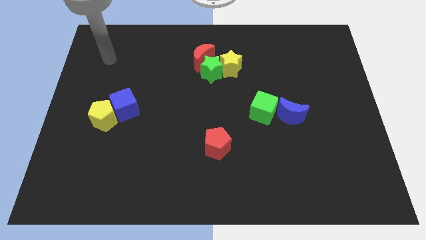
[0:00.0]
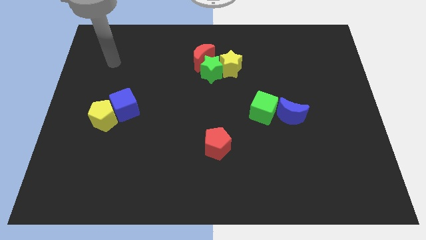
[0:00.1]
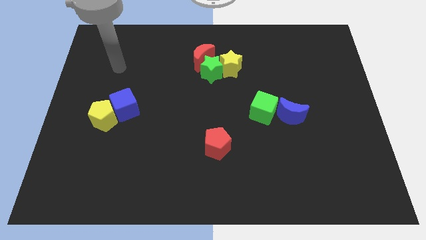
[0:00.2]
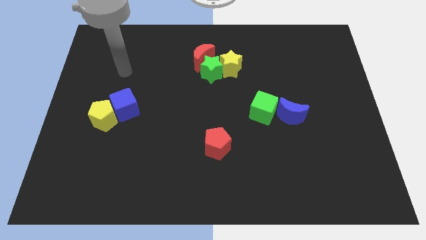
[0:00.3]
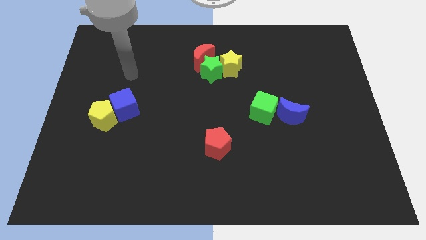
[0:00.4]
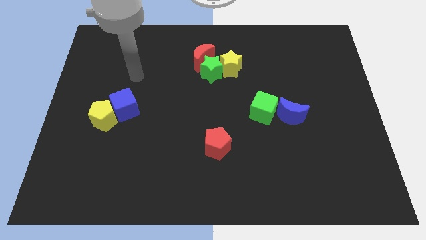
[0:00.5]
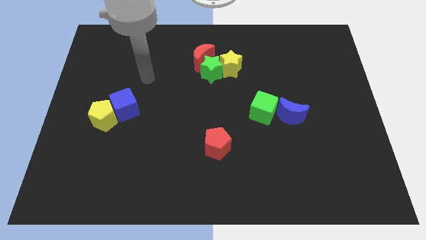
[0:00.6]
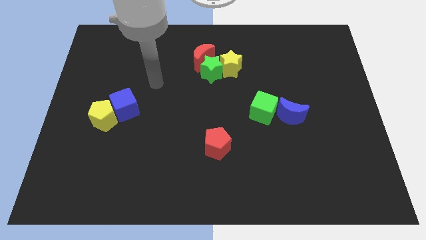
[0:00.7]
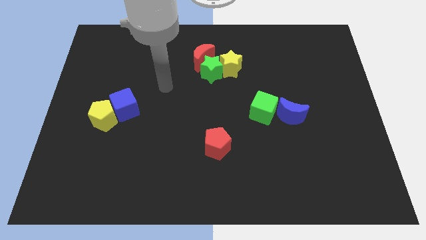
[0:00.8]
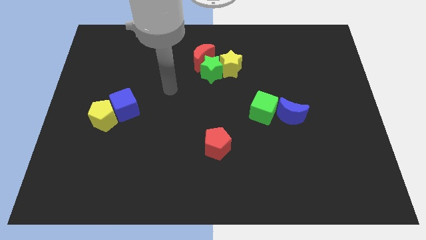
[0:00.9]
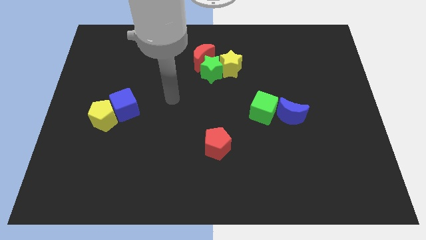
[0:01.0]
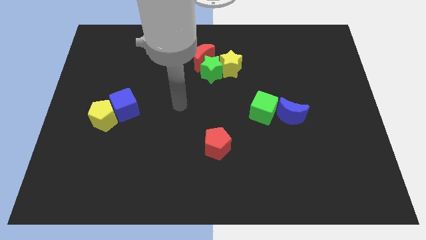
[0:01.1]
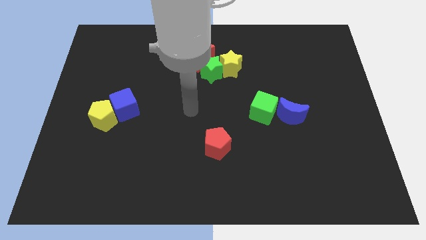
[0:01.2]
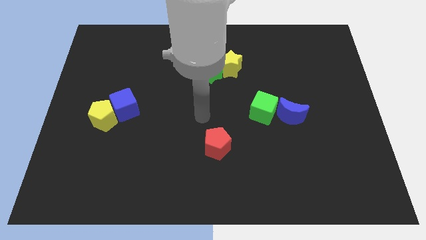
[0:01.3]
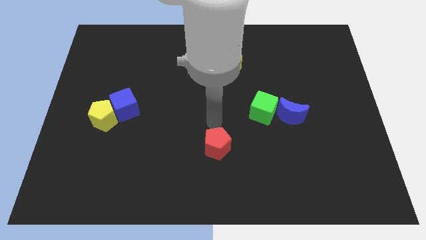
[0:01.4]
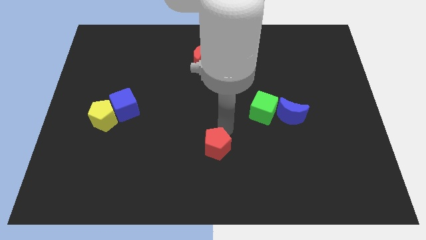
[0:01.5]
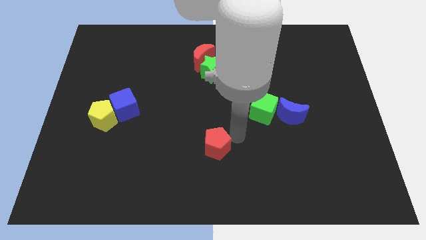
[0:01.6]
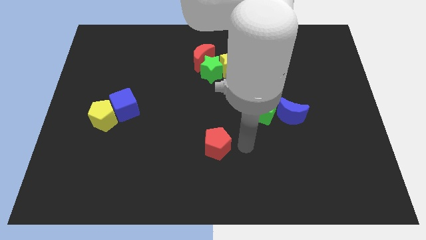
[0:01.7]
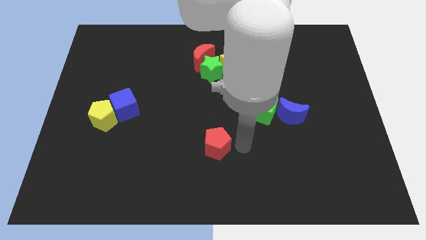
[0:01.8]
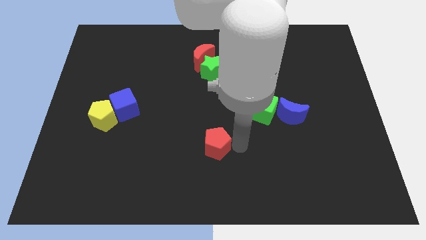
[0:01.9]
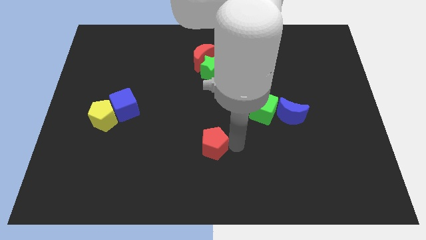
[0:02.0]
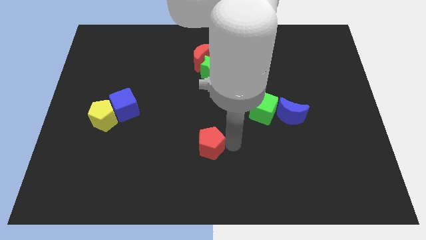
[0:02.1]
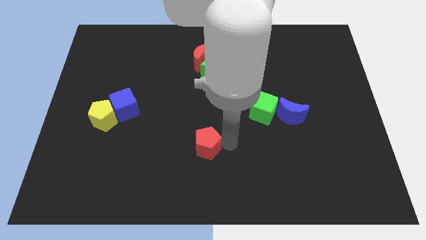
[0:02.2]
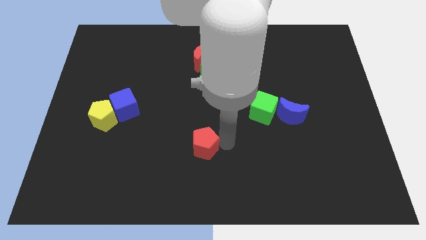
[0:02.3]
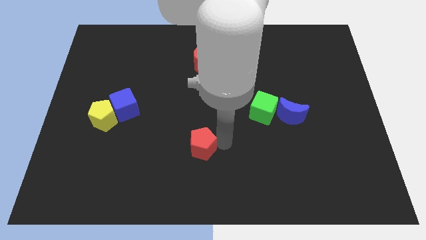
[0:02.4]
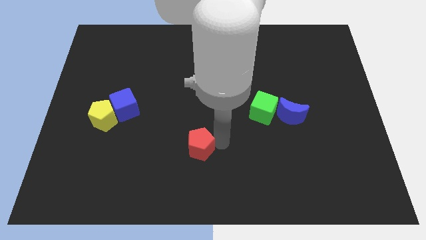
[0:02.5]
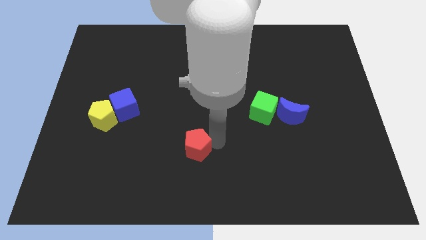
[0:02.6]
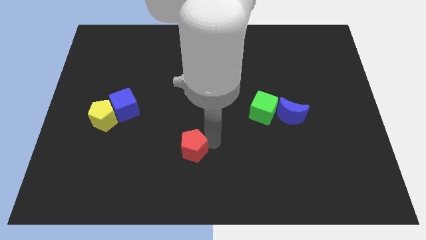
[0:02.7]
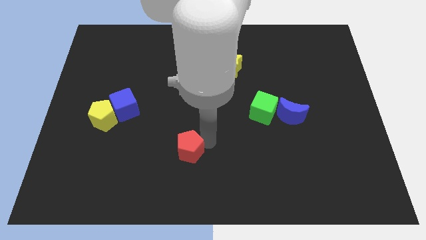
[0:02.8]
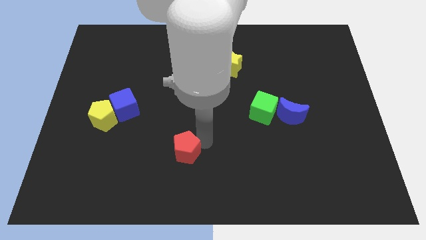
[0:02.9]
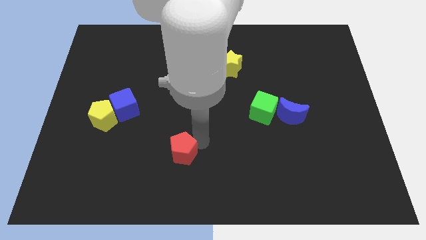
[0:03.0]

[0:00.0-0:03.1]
push the red pentagon left a little

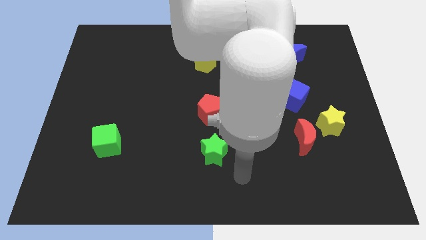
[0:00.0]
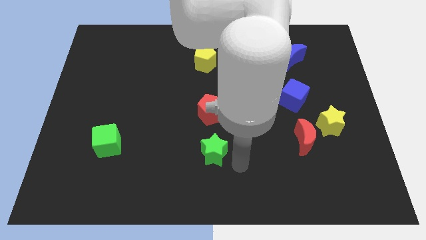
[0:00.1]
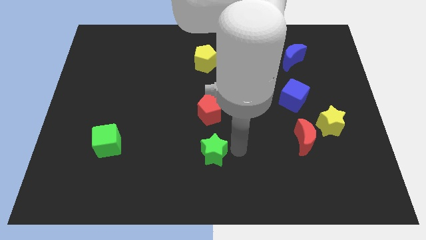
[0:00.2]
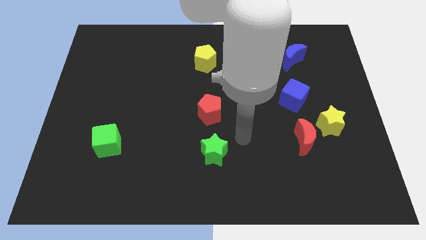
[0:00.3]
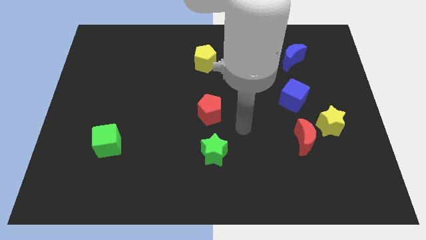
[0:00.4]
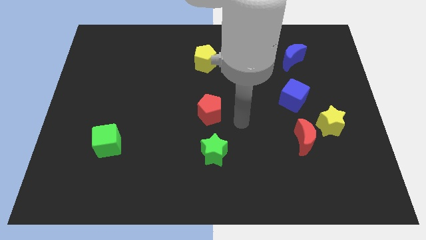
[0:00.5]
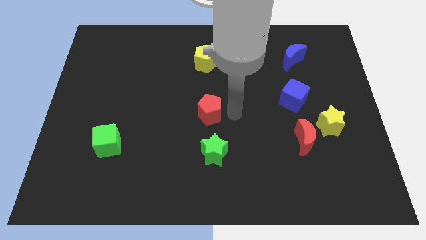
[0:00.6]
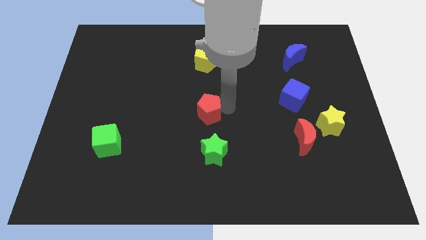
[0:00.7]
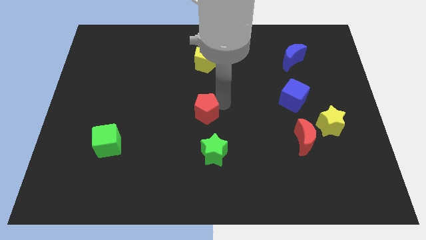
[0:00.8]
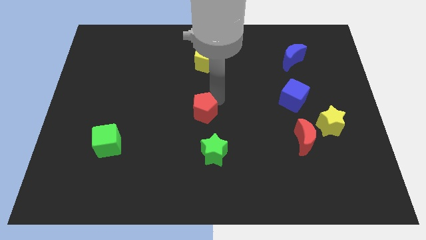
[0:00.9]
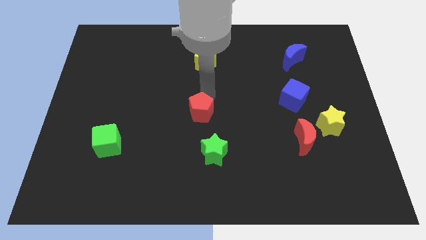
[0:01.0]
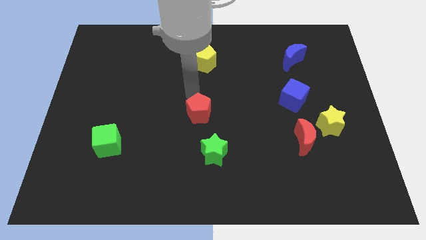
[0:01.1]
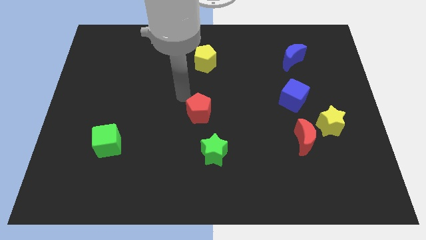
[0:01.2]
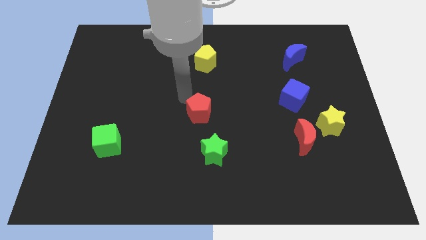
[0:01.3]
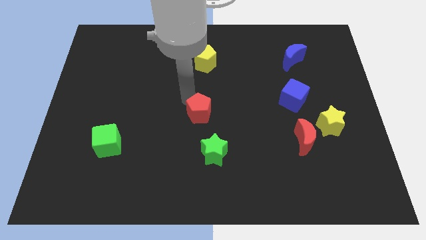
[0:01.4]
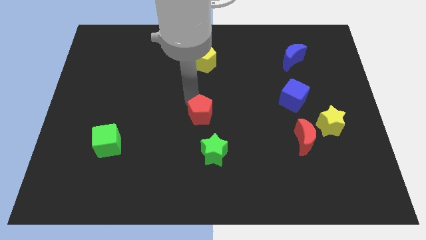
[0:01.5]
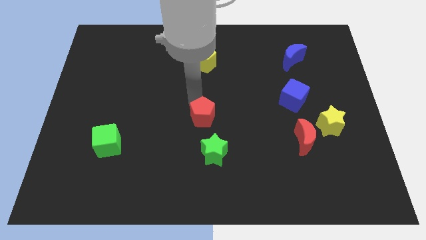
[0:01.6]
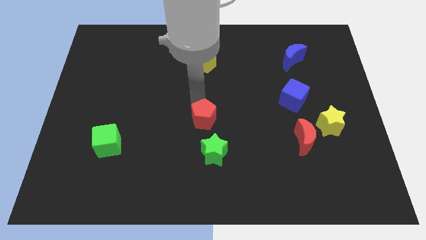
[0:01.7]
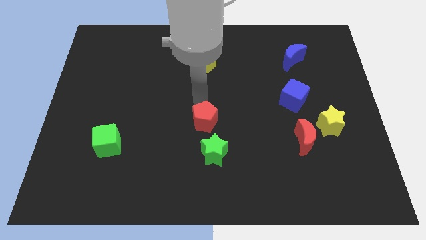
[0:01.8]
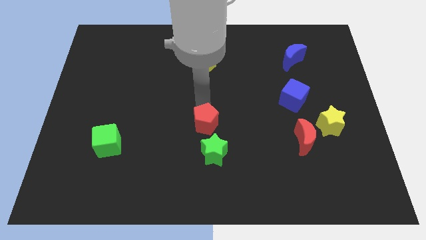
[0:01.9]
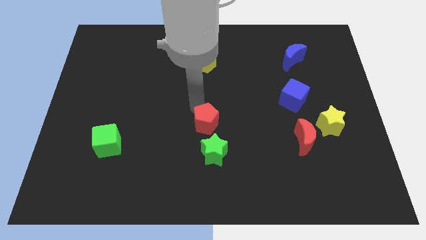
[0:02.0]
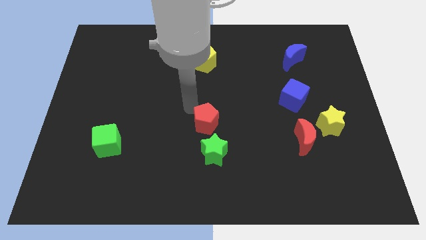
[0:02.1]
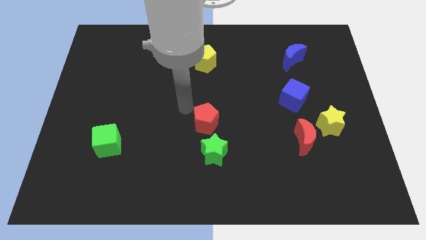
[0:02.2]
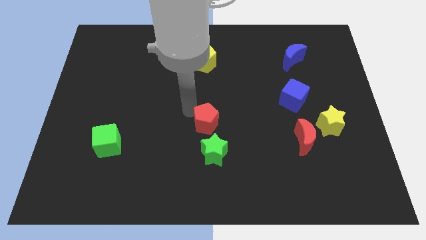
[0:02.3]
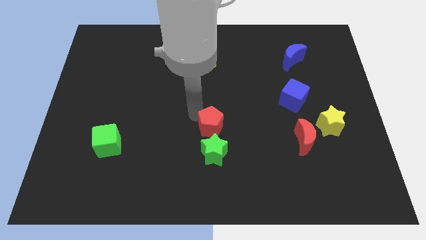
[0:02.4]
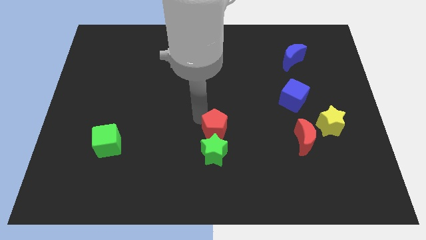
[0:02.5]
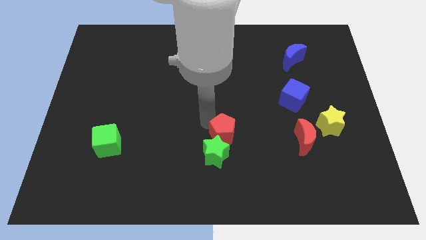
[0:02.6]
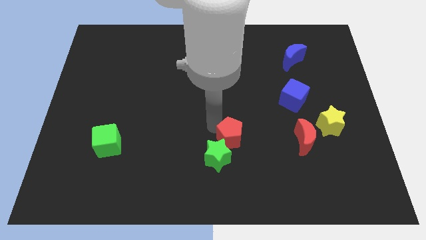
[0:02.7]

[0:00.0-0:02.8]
slide the red pentagon downwards and to the right slightly

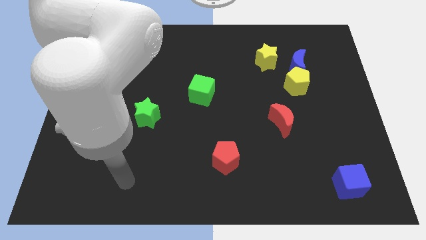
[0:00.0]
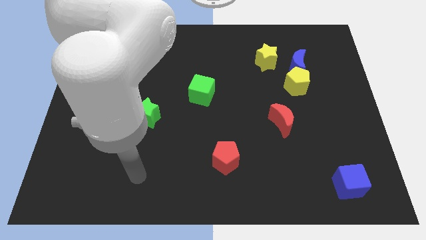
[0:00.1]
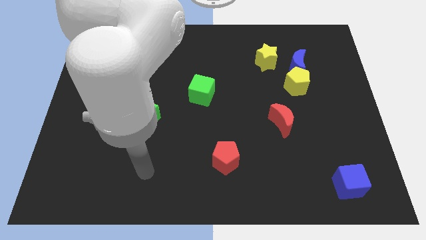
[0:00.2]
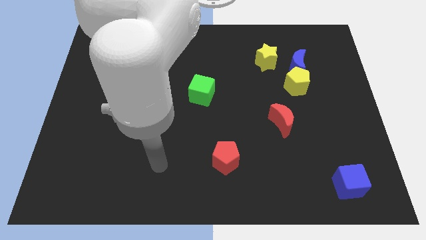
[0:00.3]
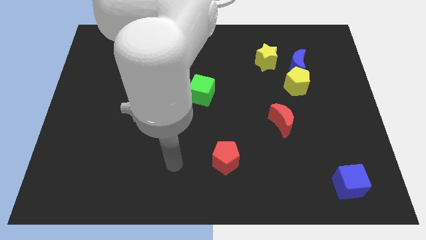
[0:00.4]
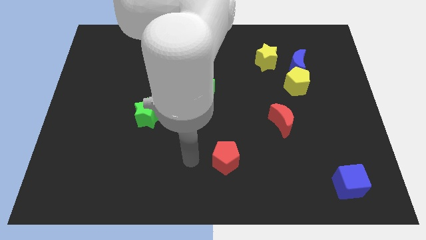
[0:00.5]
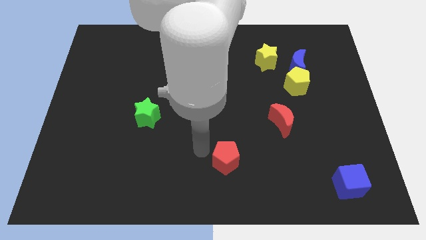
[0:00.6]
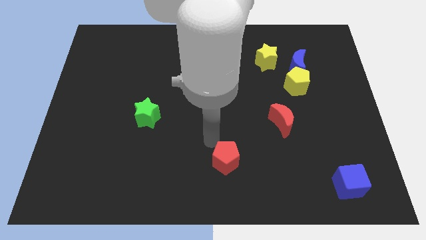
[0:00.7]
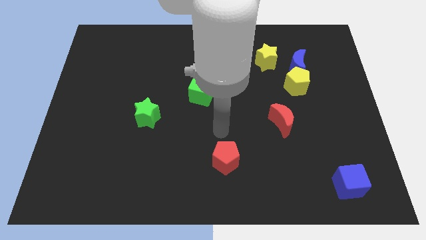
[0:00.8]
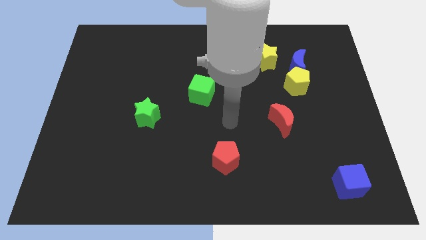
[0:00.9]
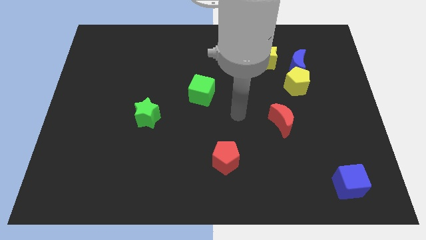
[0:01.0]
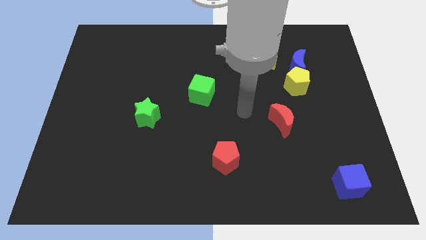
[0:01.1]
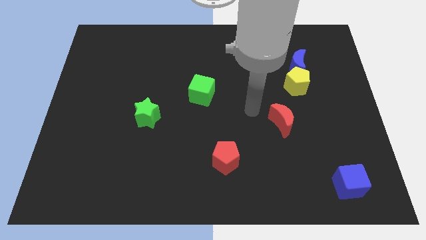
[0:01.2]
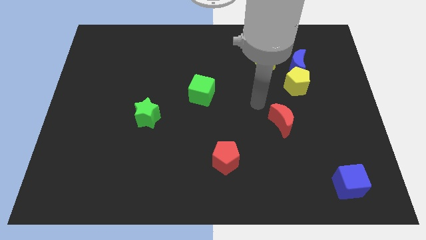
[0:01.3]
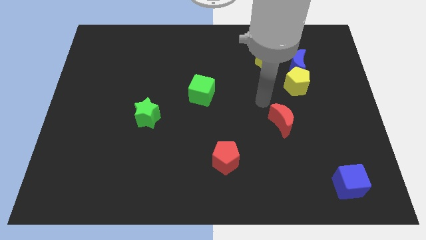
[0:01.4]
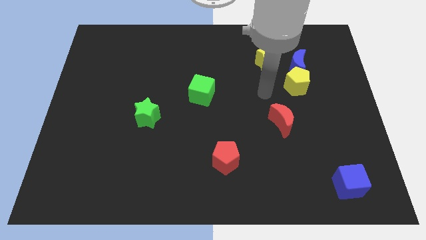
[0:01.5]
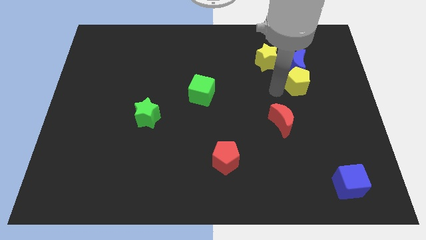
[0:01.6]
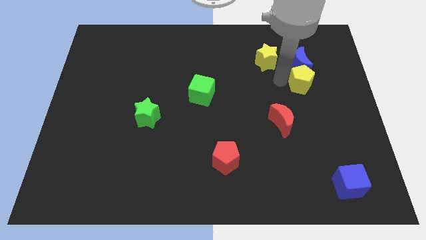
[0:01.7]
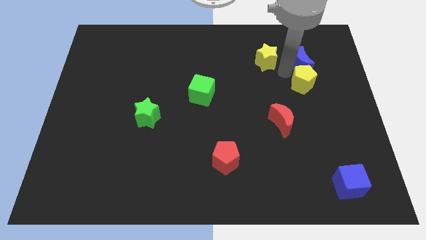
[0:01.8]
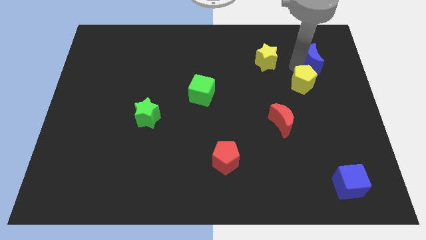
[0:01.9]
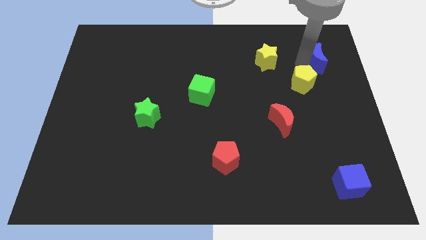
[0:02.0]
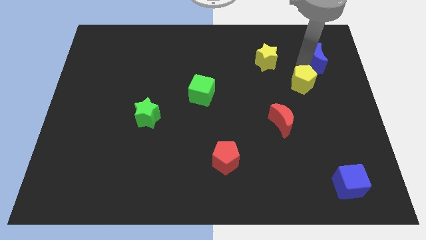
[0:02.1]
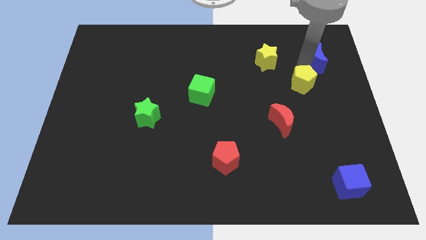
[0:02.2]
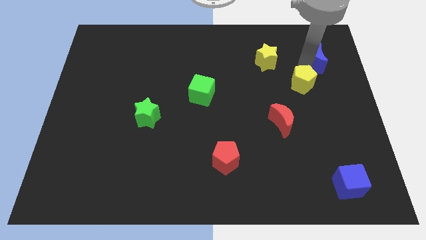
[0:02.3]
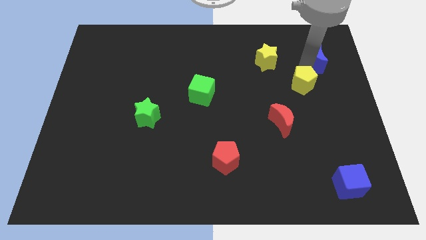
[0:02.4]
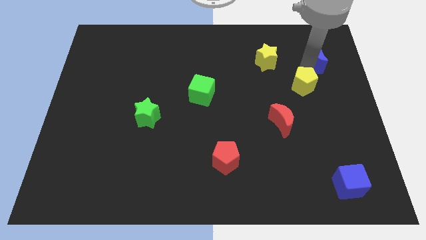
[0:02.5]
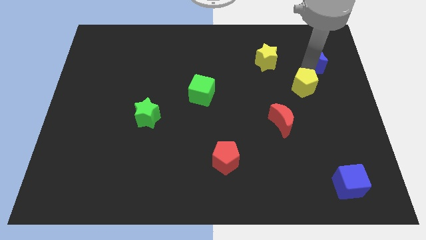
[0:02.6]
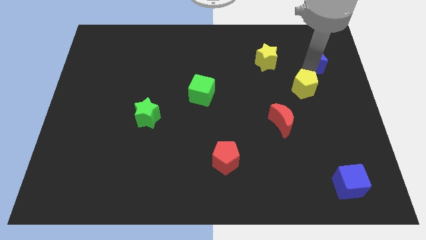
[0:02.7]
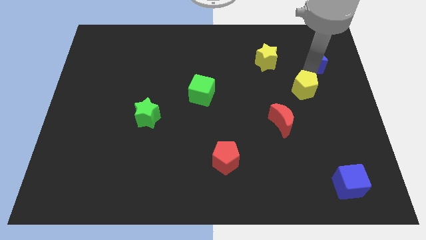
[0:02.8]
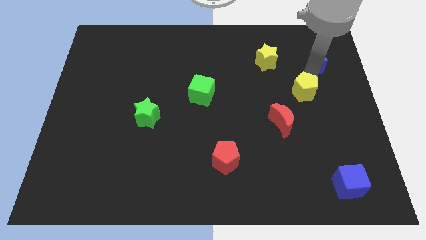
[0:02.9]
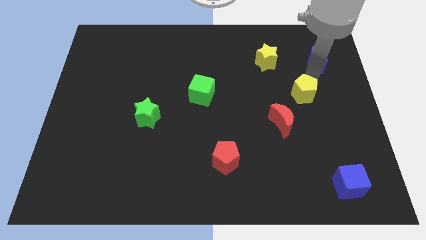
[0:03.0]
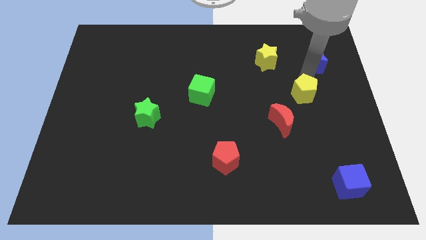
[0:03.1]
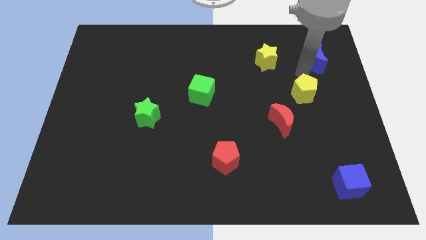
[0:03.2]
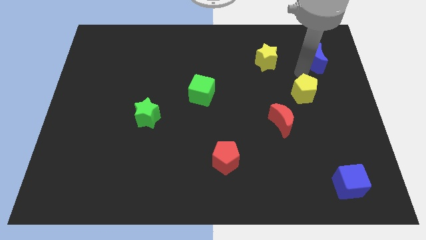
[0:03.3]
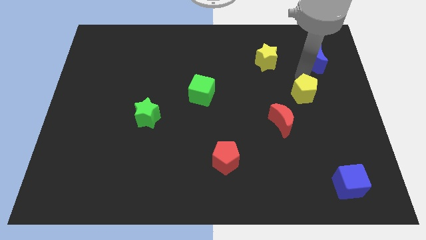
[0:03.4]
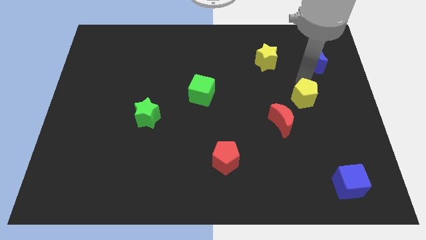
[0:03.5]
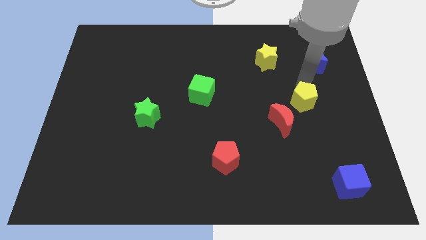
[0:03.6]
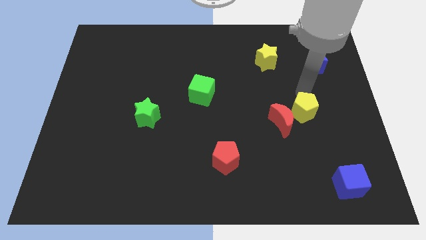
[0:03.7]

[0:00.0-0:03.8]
push the yellow pentagon a bit down
